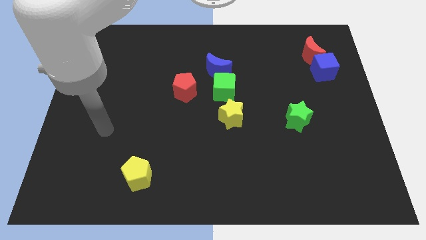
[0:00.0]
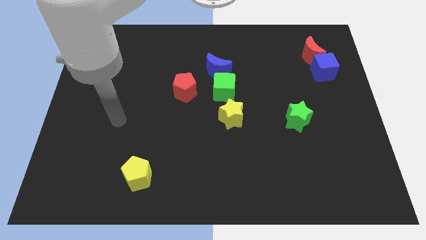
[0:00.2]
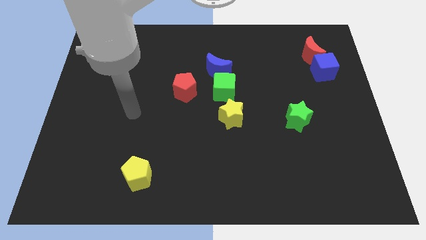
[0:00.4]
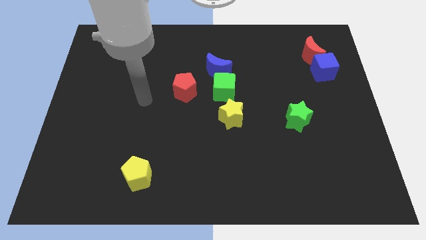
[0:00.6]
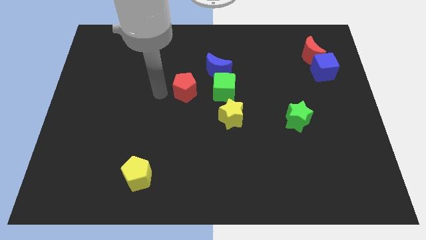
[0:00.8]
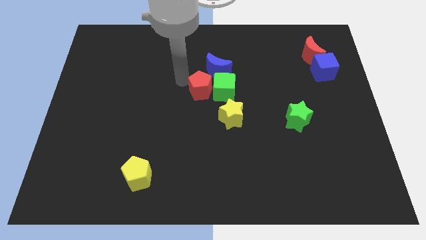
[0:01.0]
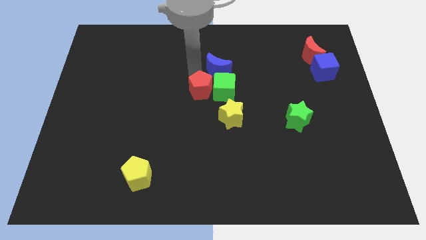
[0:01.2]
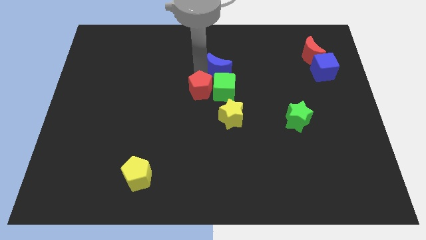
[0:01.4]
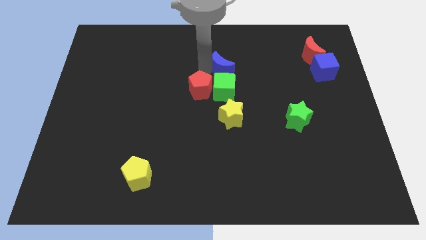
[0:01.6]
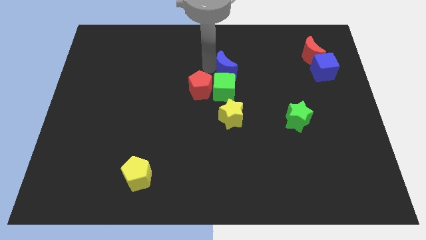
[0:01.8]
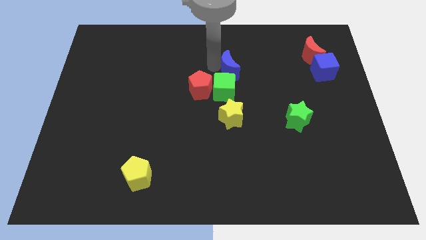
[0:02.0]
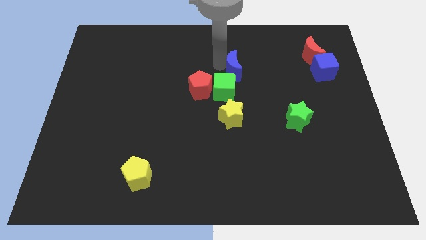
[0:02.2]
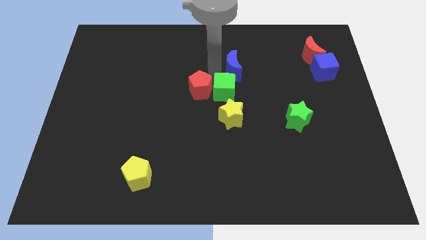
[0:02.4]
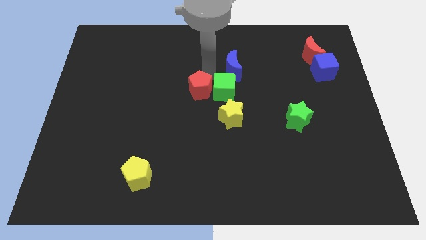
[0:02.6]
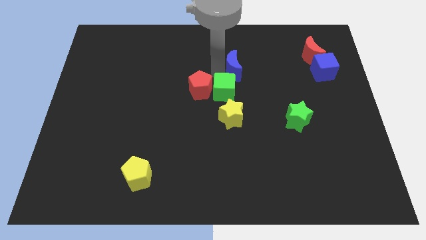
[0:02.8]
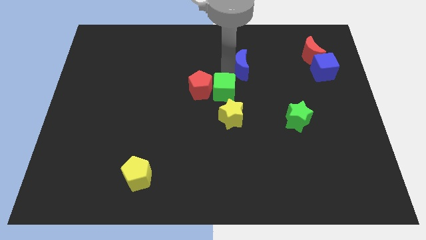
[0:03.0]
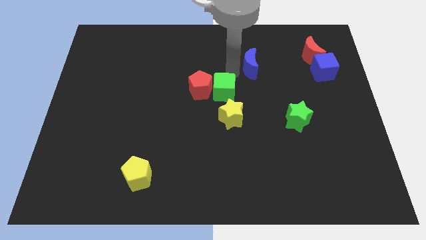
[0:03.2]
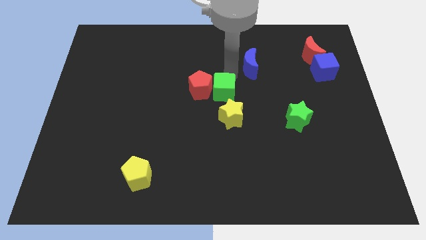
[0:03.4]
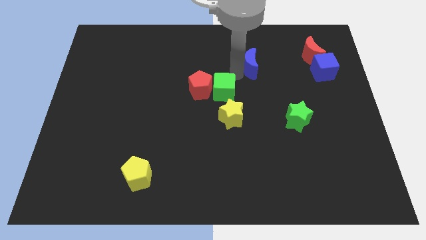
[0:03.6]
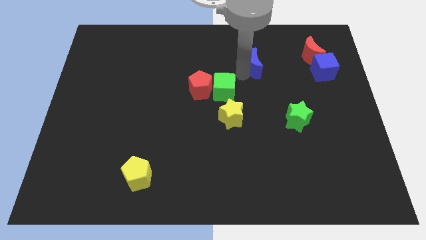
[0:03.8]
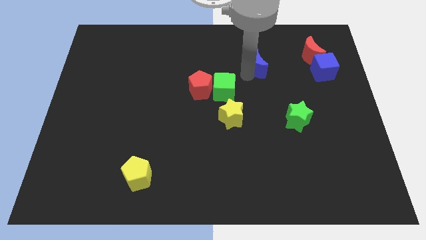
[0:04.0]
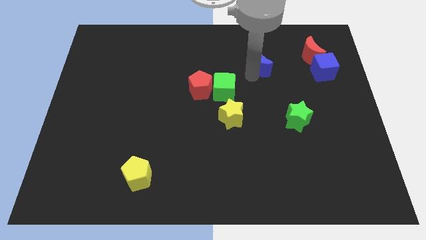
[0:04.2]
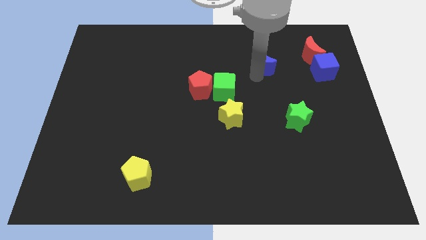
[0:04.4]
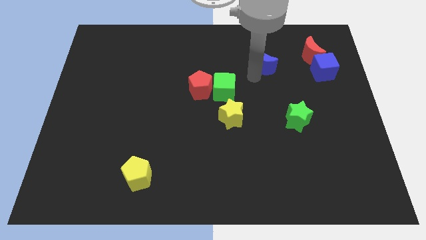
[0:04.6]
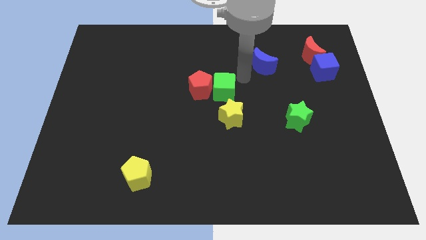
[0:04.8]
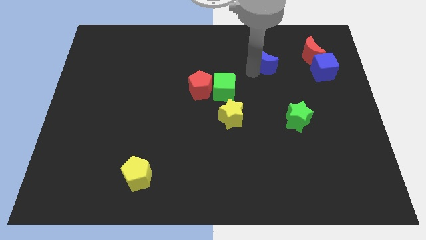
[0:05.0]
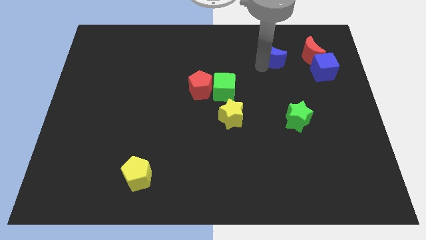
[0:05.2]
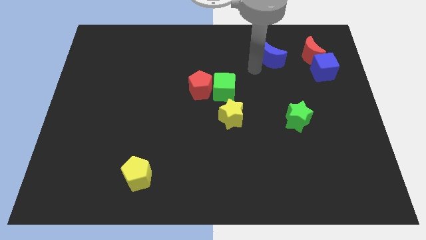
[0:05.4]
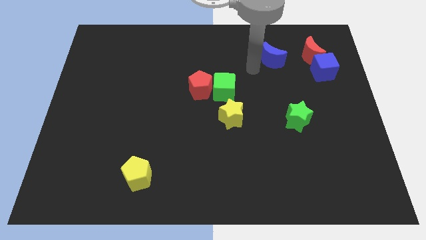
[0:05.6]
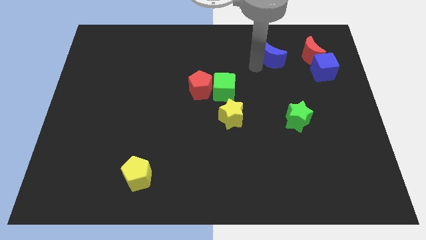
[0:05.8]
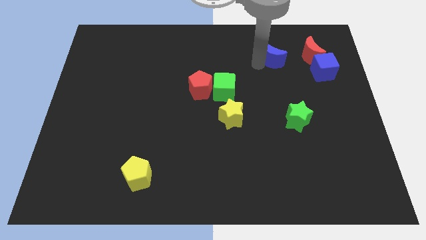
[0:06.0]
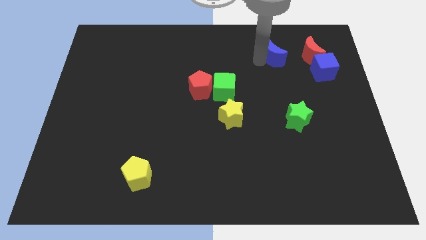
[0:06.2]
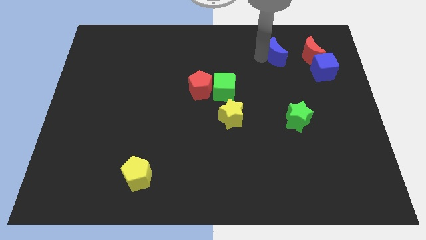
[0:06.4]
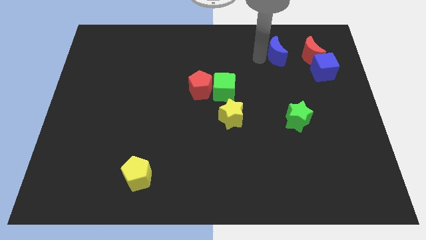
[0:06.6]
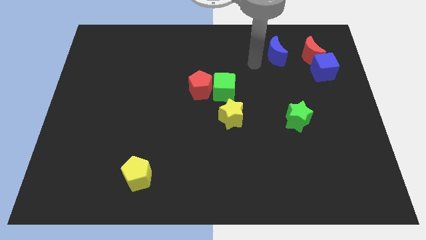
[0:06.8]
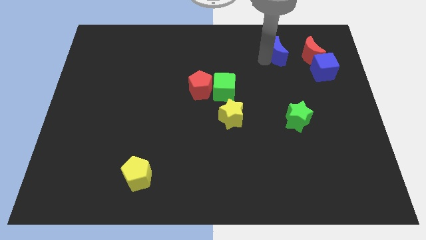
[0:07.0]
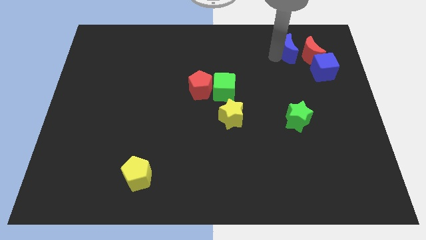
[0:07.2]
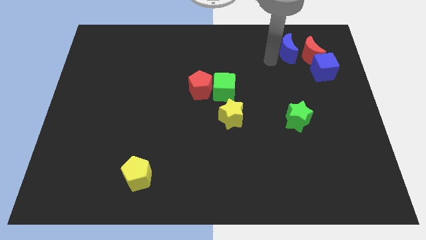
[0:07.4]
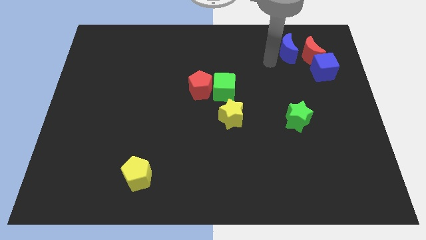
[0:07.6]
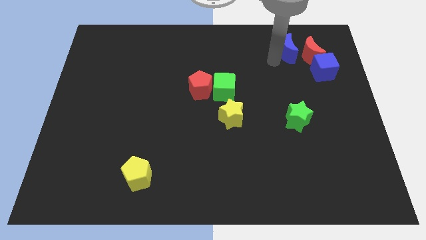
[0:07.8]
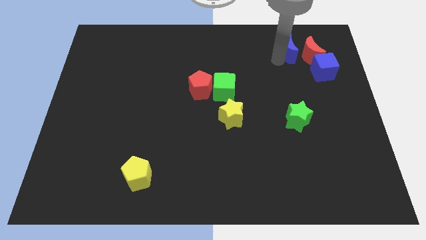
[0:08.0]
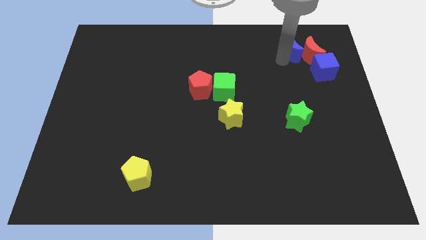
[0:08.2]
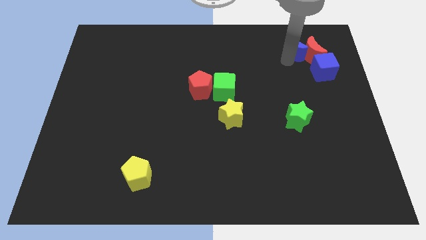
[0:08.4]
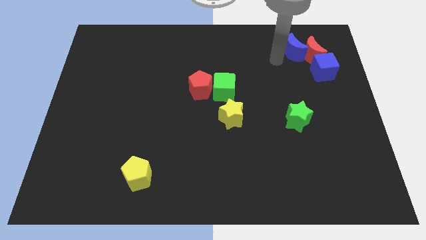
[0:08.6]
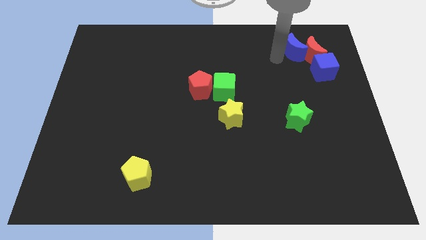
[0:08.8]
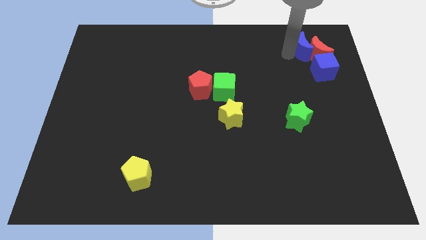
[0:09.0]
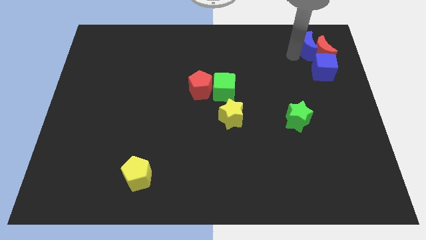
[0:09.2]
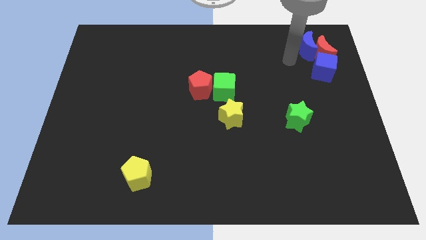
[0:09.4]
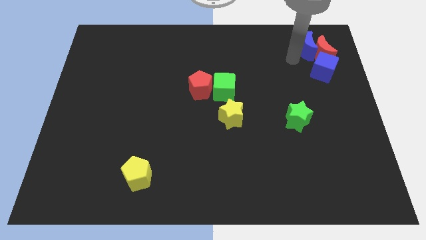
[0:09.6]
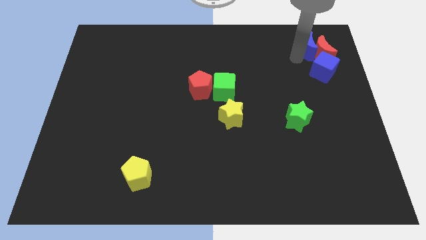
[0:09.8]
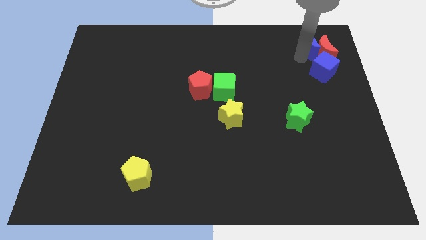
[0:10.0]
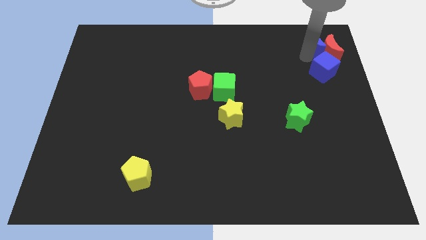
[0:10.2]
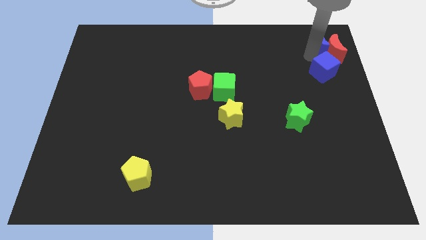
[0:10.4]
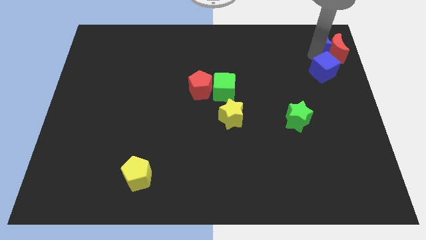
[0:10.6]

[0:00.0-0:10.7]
push the blue moon to the top right of the board

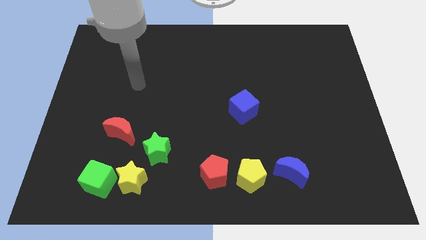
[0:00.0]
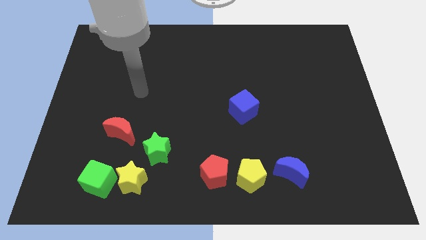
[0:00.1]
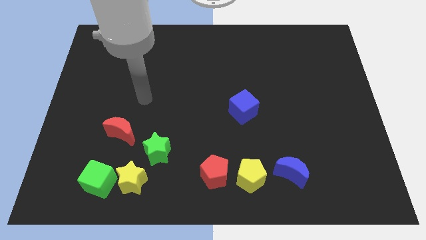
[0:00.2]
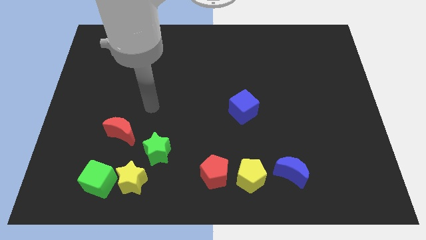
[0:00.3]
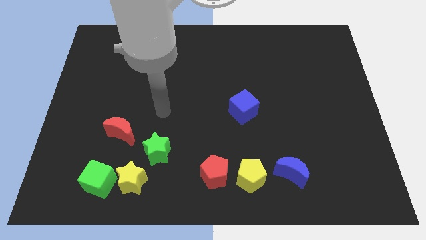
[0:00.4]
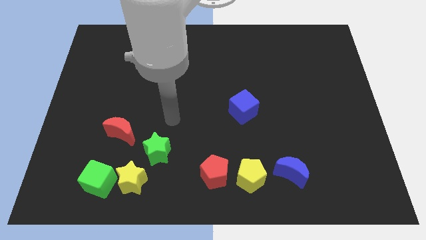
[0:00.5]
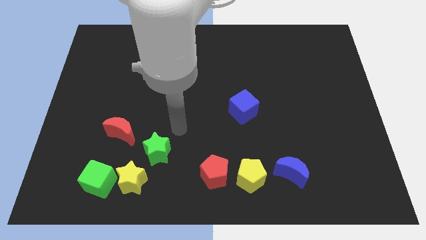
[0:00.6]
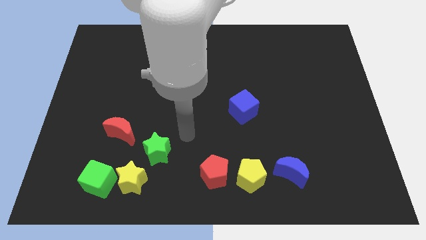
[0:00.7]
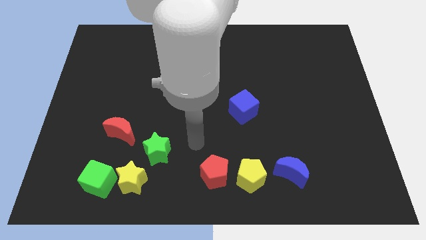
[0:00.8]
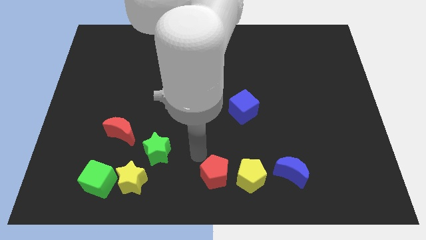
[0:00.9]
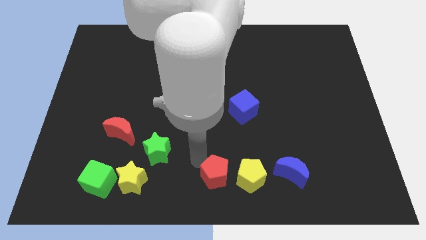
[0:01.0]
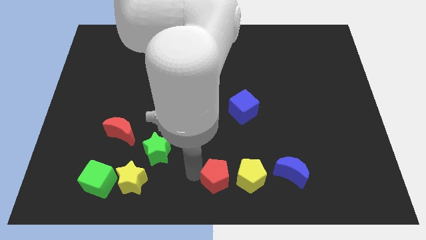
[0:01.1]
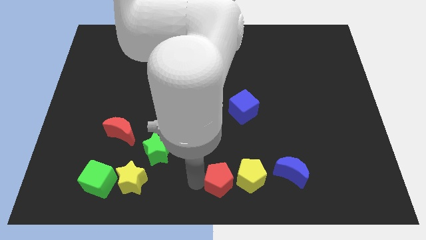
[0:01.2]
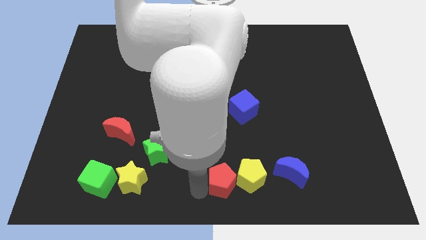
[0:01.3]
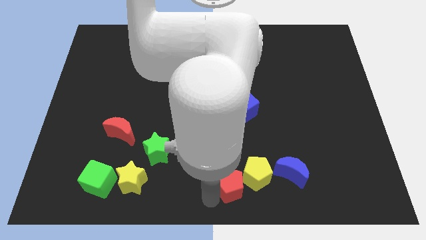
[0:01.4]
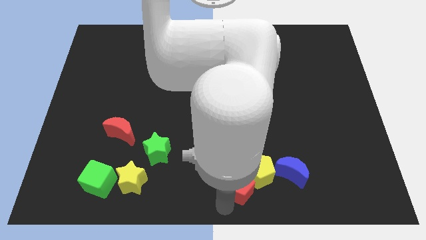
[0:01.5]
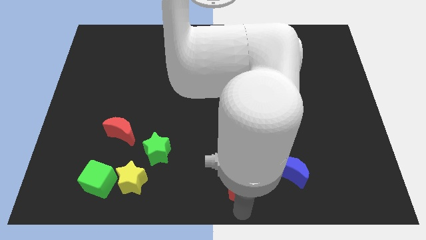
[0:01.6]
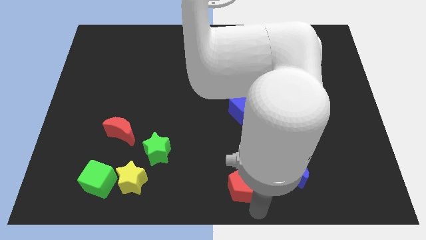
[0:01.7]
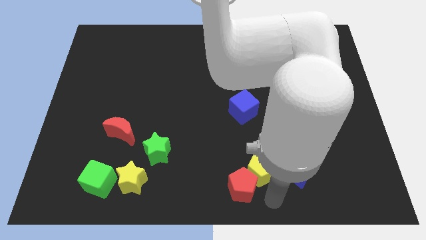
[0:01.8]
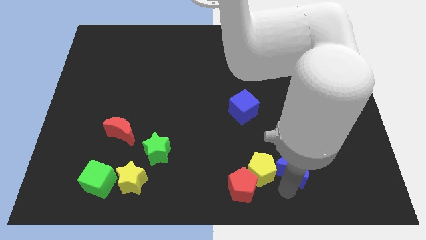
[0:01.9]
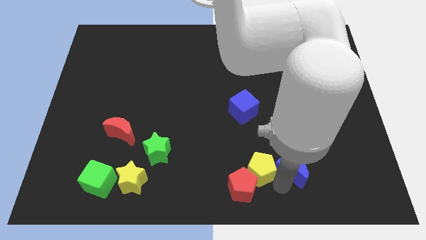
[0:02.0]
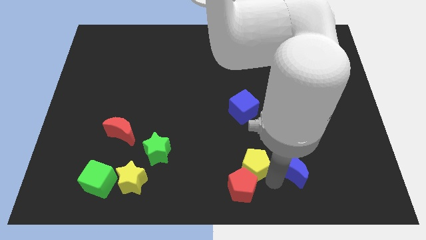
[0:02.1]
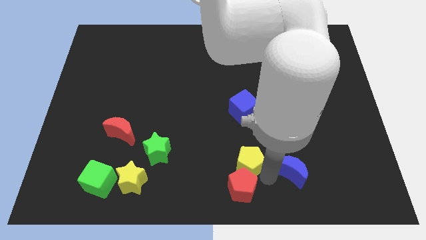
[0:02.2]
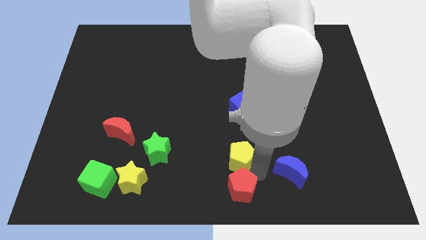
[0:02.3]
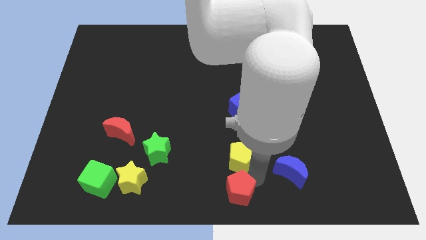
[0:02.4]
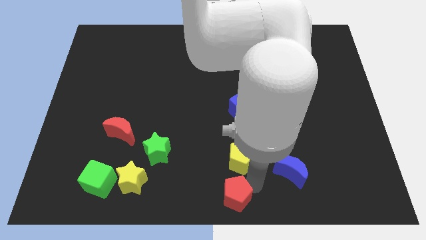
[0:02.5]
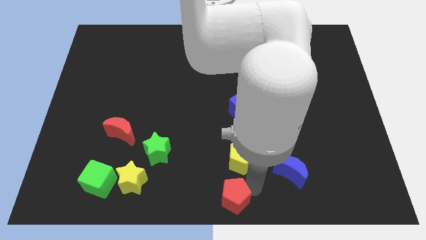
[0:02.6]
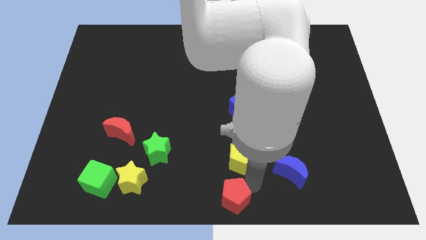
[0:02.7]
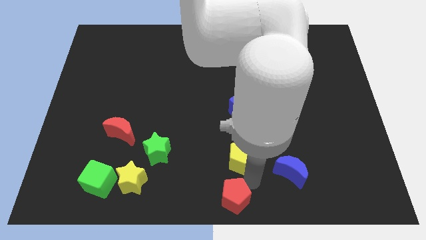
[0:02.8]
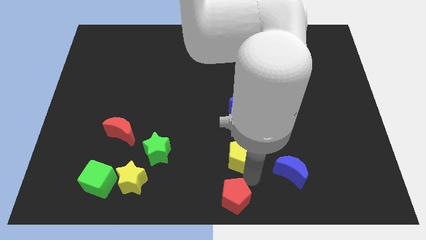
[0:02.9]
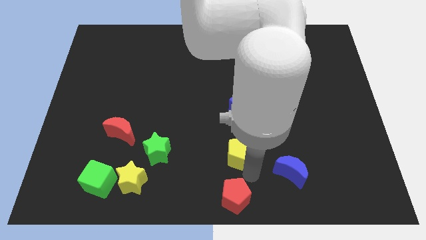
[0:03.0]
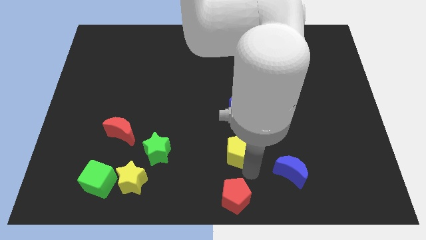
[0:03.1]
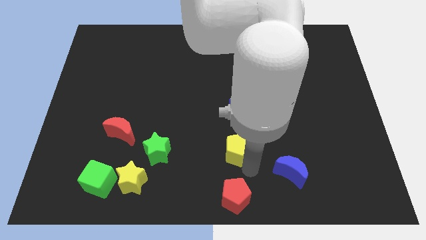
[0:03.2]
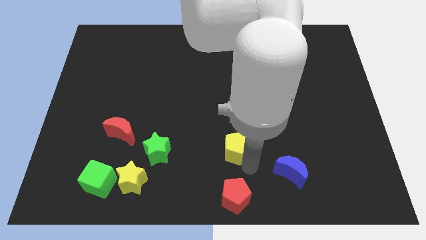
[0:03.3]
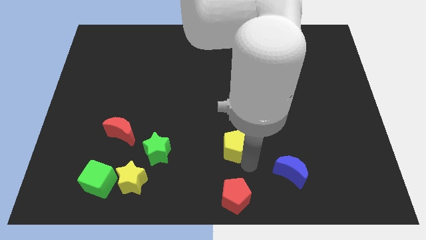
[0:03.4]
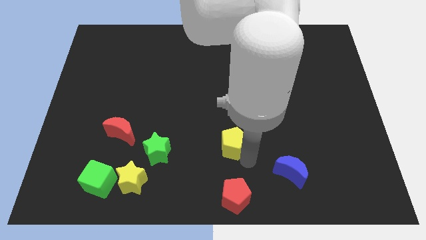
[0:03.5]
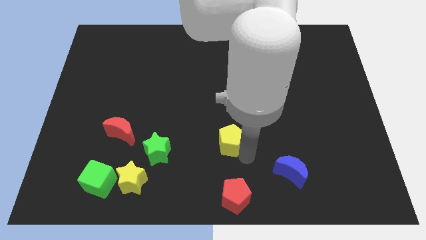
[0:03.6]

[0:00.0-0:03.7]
push the yellow pentagon to the center of the board
